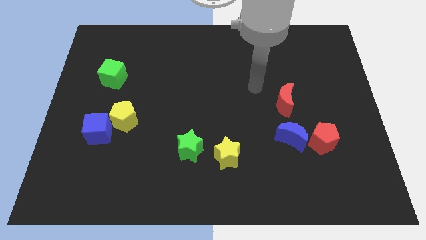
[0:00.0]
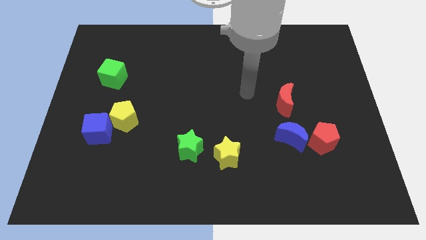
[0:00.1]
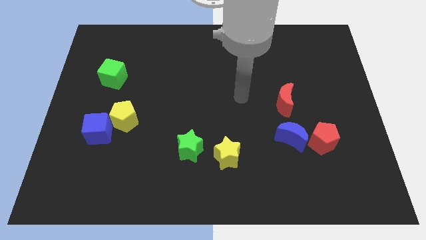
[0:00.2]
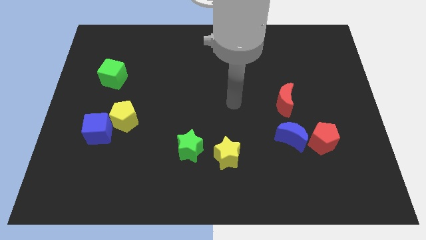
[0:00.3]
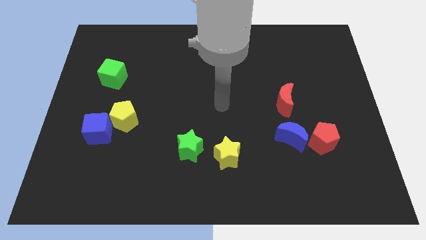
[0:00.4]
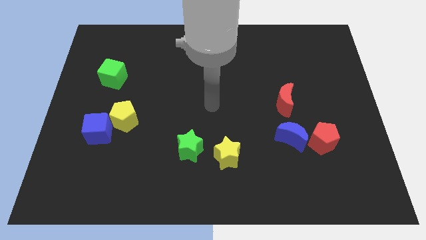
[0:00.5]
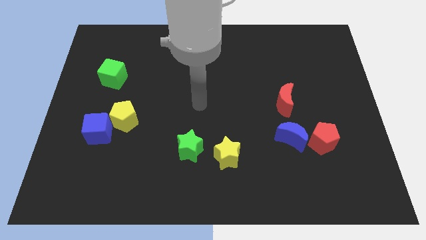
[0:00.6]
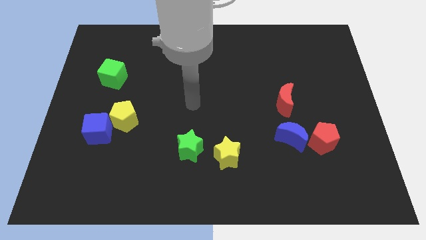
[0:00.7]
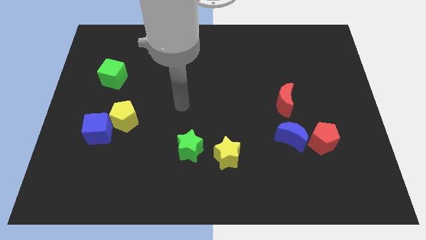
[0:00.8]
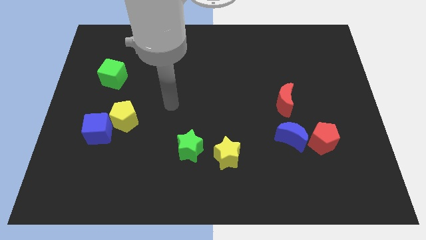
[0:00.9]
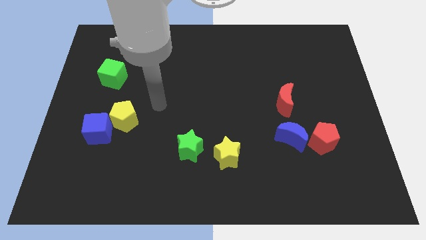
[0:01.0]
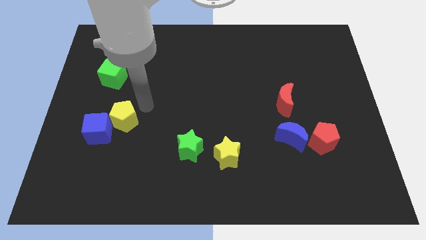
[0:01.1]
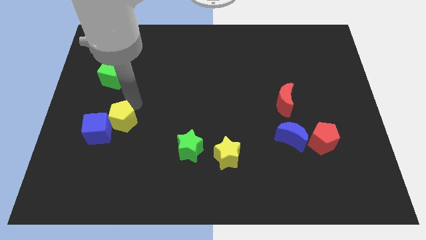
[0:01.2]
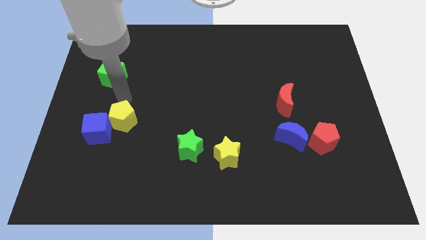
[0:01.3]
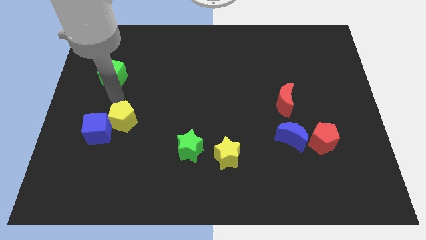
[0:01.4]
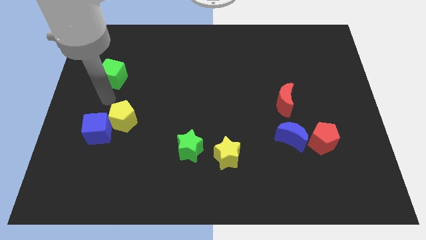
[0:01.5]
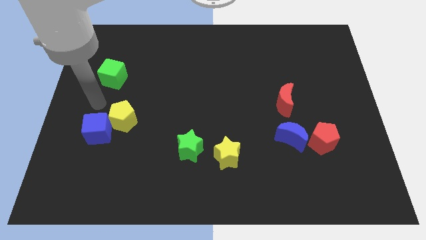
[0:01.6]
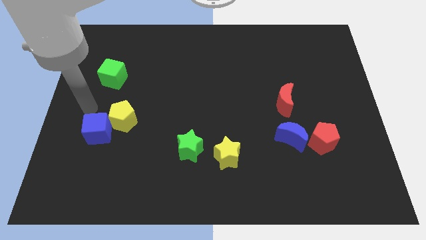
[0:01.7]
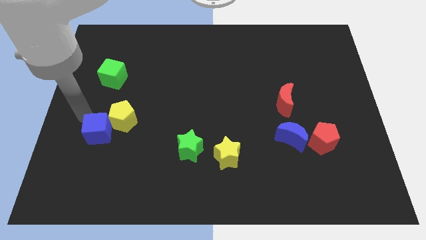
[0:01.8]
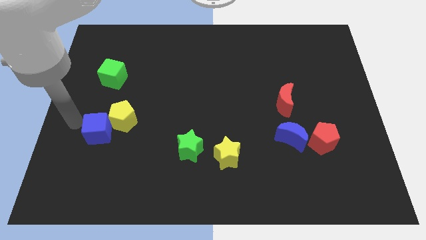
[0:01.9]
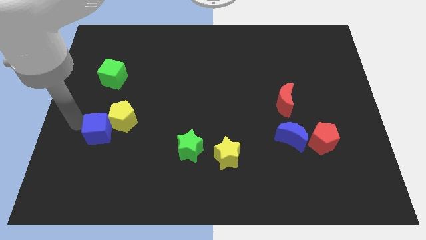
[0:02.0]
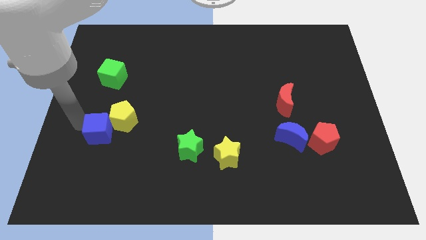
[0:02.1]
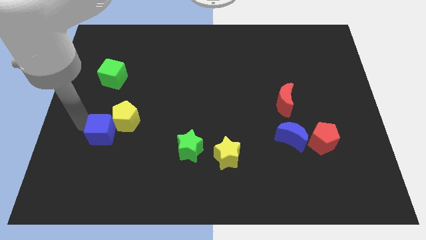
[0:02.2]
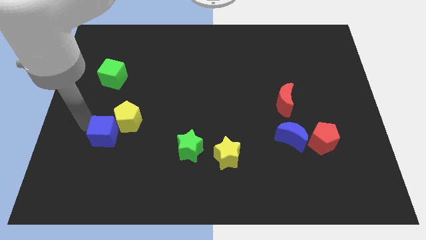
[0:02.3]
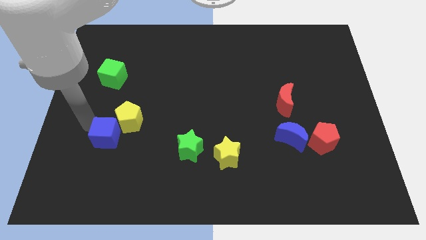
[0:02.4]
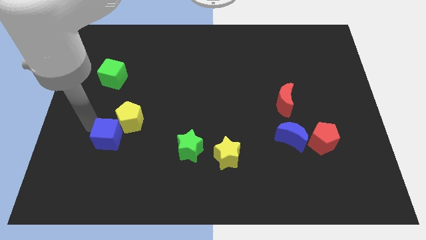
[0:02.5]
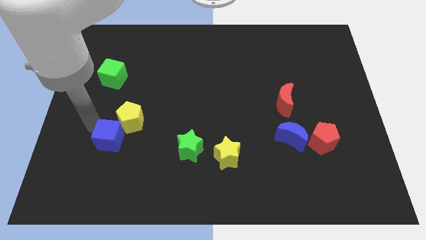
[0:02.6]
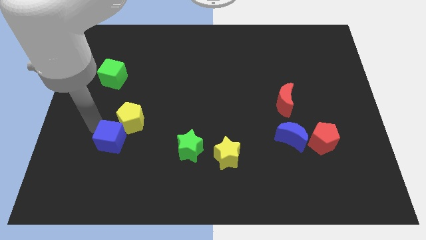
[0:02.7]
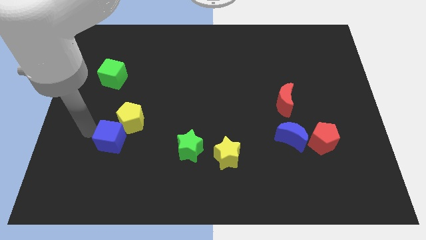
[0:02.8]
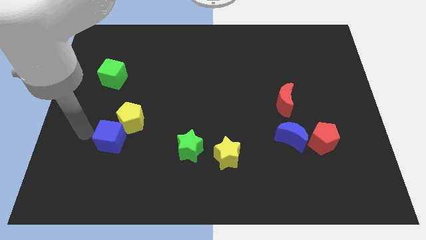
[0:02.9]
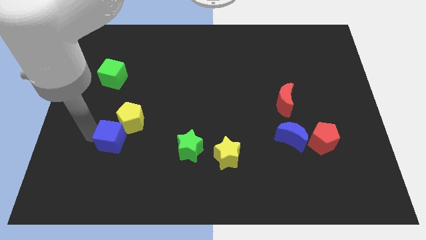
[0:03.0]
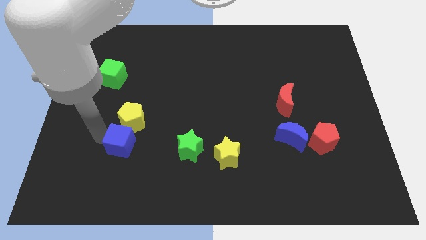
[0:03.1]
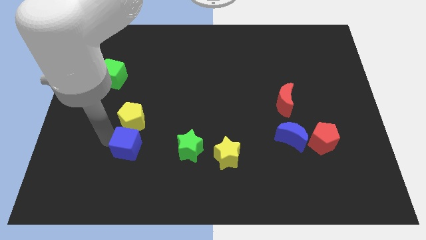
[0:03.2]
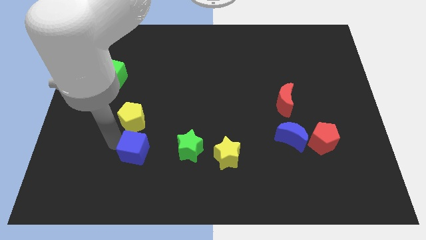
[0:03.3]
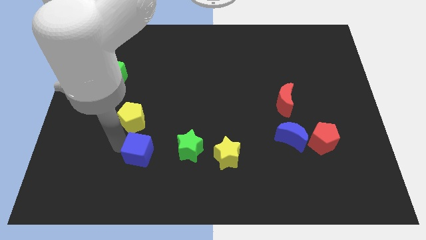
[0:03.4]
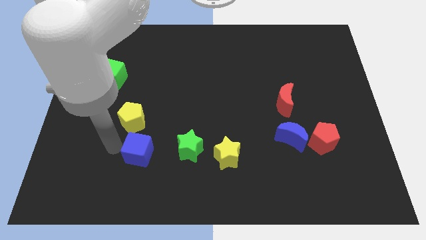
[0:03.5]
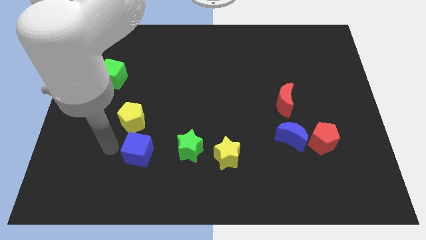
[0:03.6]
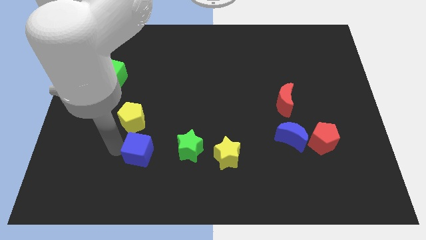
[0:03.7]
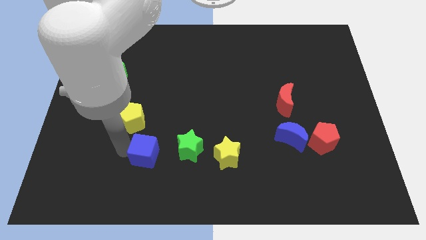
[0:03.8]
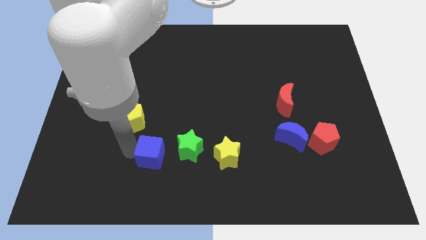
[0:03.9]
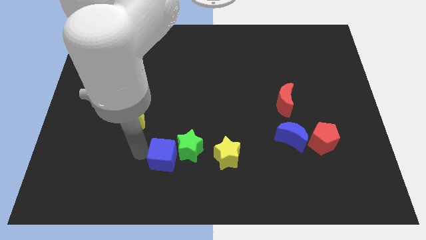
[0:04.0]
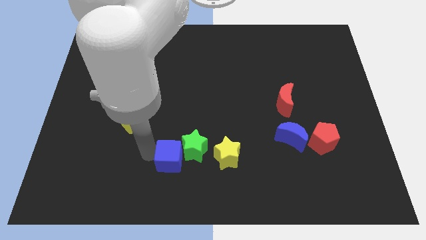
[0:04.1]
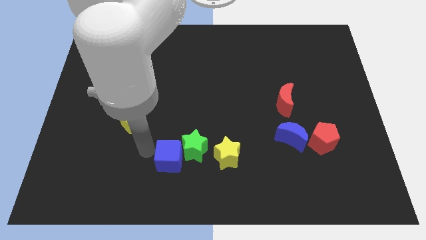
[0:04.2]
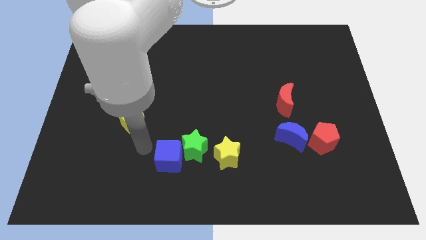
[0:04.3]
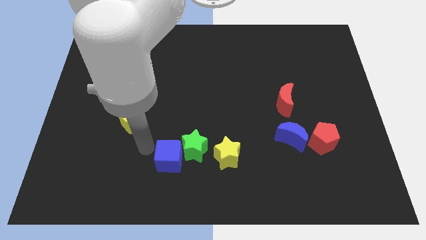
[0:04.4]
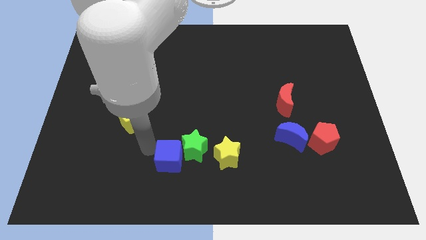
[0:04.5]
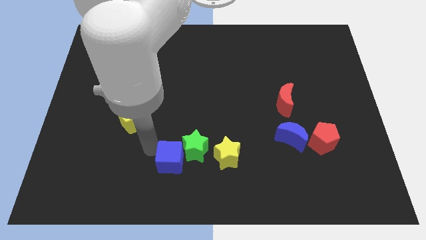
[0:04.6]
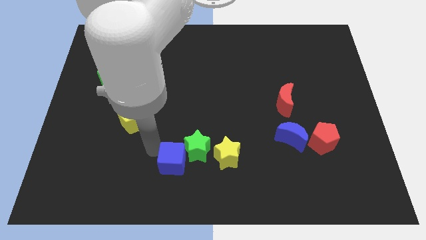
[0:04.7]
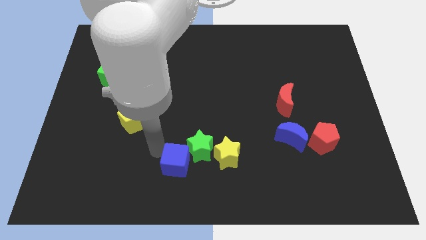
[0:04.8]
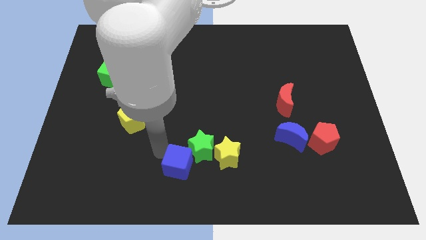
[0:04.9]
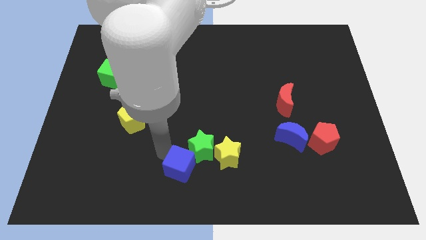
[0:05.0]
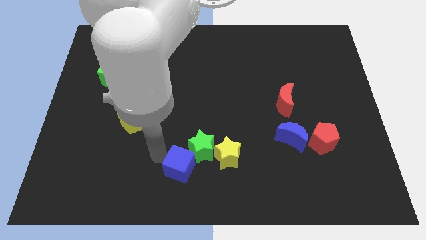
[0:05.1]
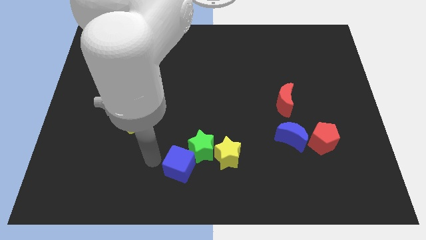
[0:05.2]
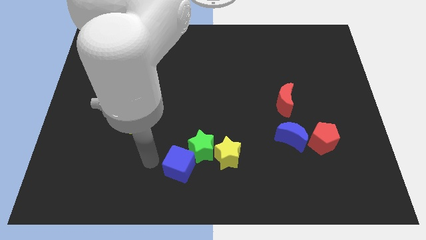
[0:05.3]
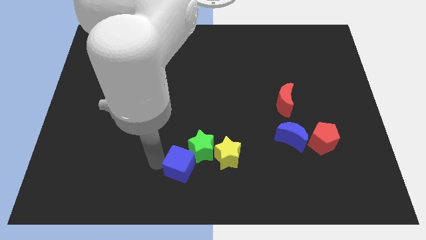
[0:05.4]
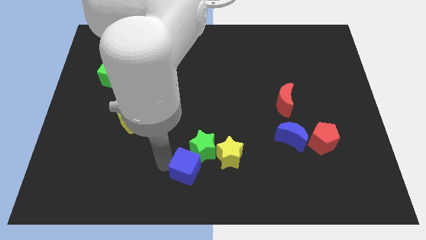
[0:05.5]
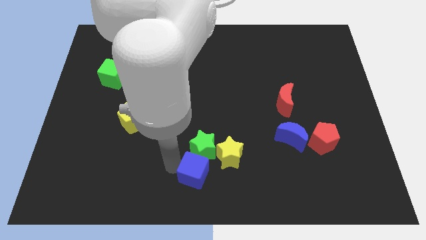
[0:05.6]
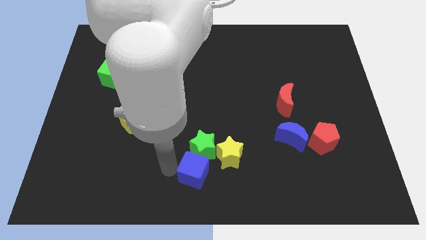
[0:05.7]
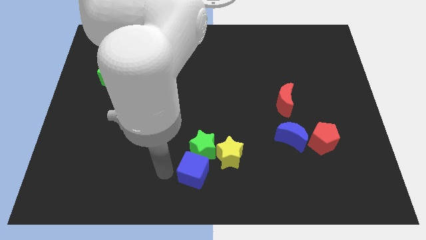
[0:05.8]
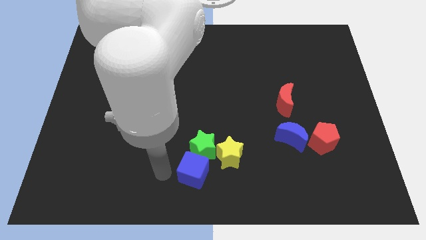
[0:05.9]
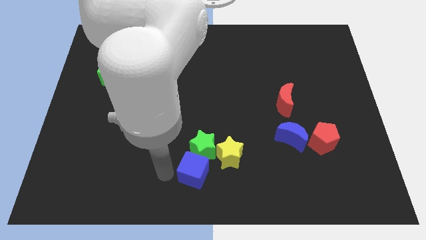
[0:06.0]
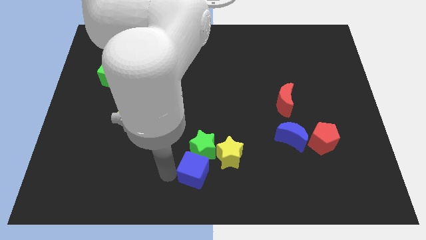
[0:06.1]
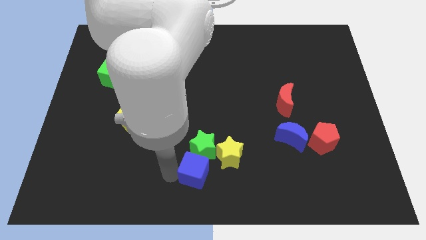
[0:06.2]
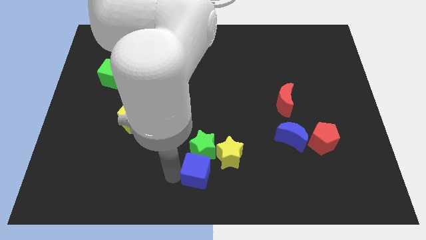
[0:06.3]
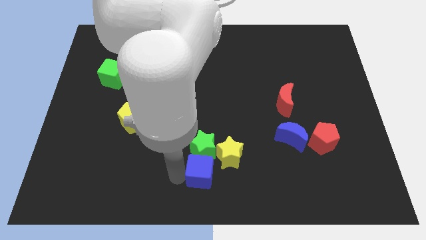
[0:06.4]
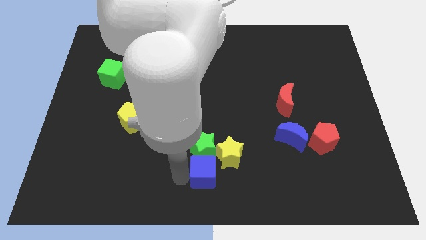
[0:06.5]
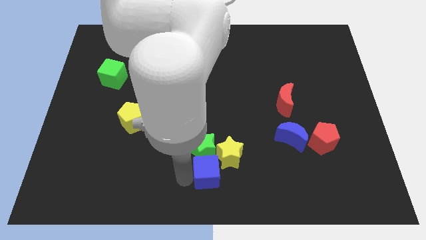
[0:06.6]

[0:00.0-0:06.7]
push the blue cube next to the yellow star

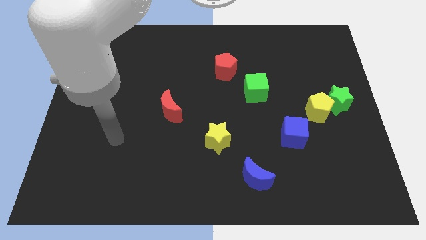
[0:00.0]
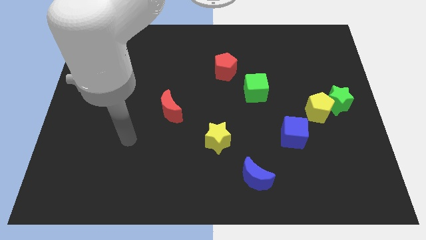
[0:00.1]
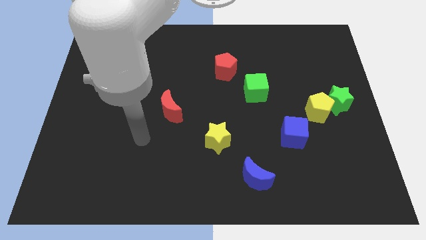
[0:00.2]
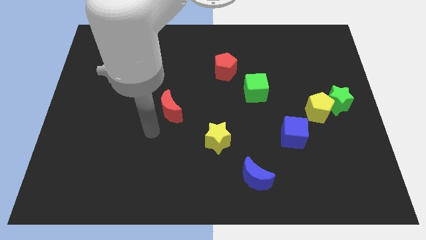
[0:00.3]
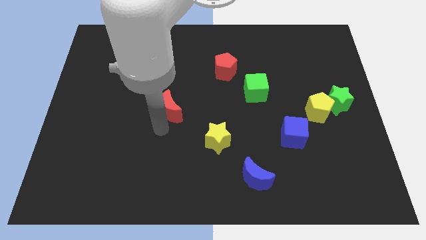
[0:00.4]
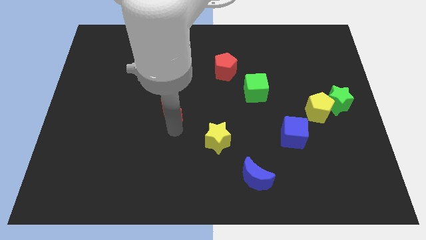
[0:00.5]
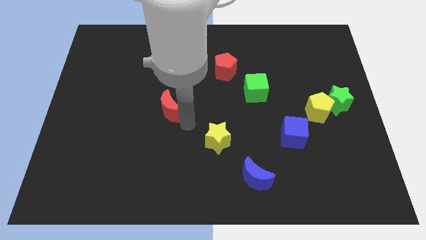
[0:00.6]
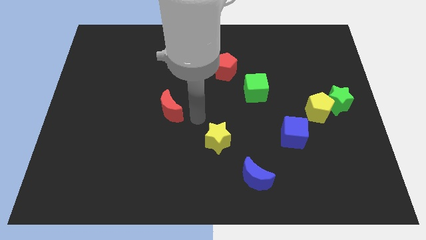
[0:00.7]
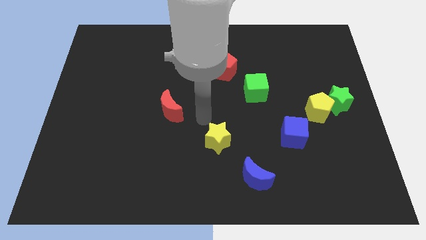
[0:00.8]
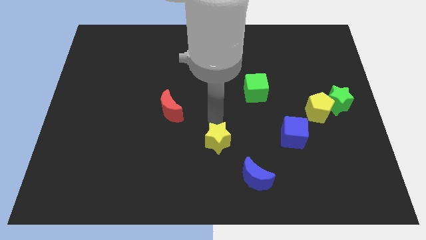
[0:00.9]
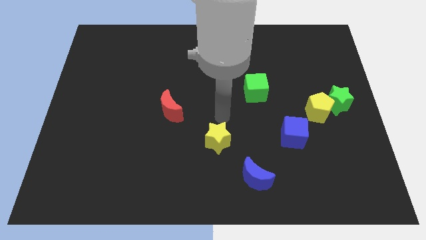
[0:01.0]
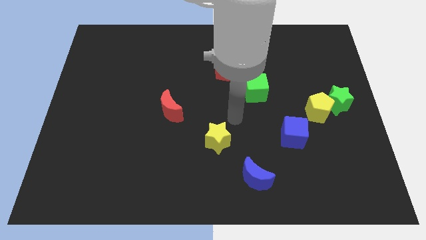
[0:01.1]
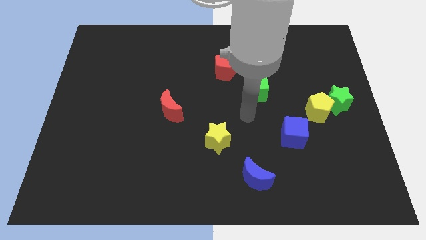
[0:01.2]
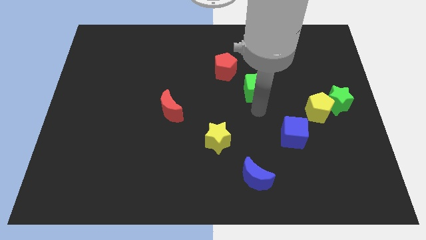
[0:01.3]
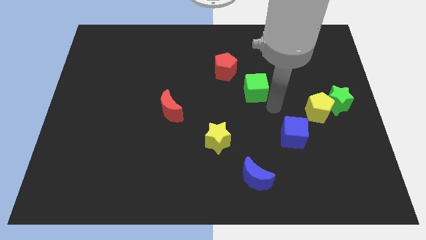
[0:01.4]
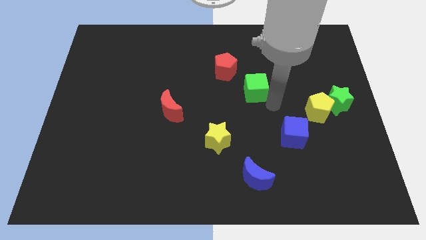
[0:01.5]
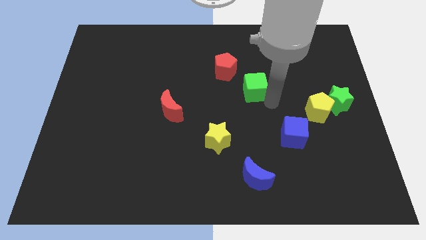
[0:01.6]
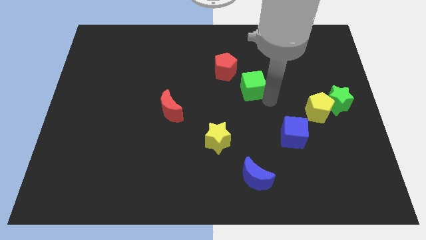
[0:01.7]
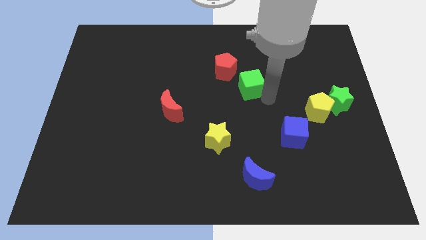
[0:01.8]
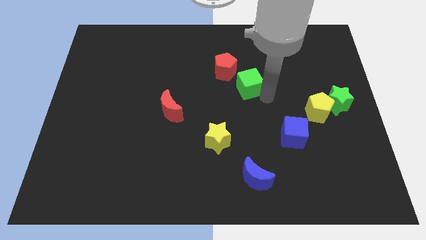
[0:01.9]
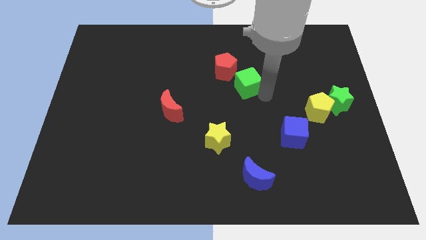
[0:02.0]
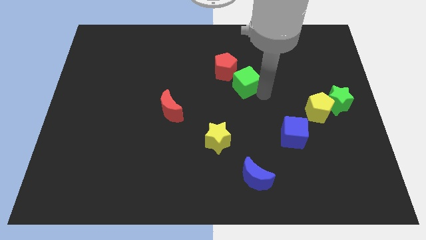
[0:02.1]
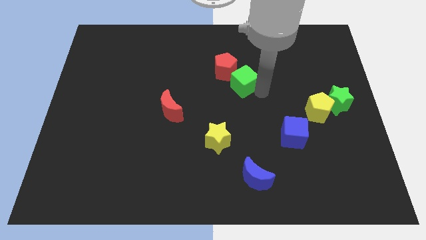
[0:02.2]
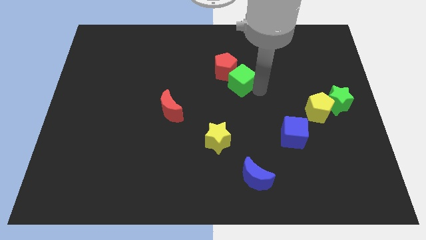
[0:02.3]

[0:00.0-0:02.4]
slide the green cube towards the red pentagon
